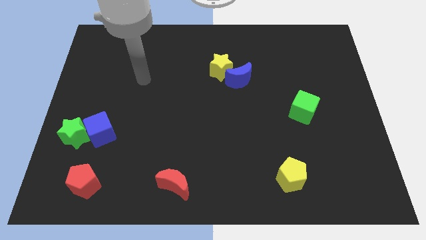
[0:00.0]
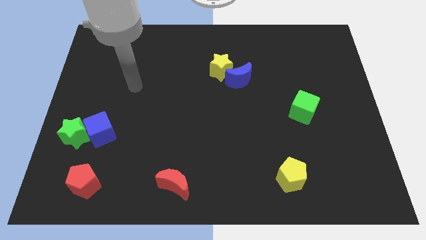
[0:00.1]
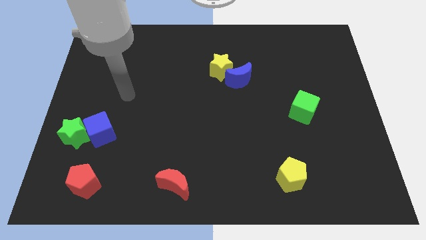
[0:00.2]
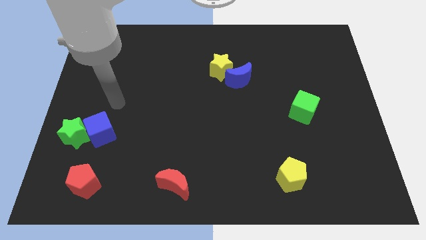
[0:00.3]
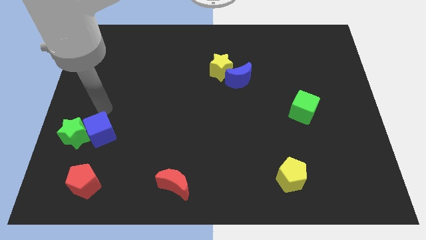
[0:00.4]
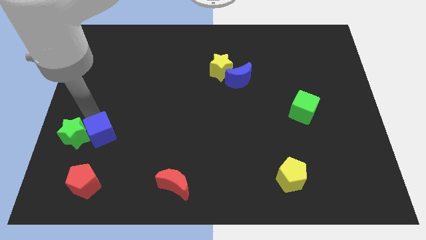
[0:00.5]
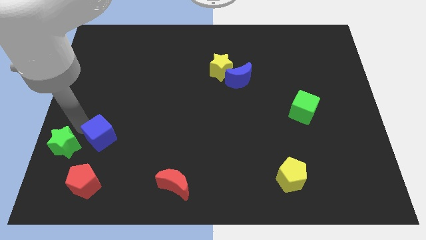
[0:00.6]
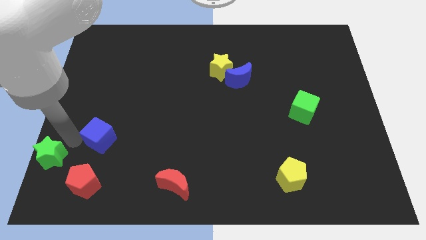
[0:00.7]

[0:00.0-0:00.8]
move the blue cube away from the green star

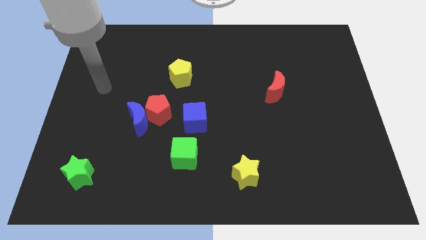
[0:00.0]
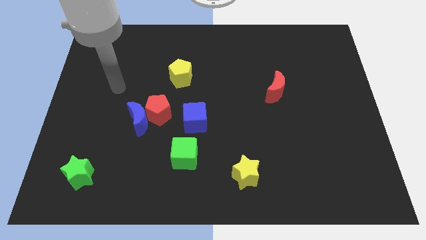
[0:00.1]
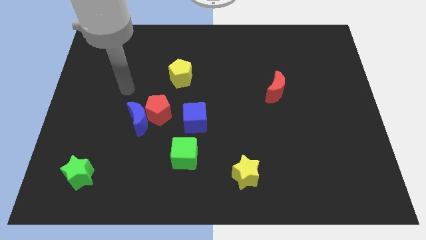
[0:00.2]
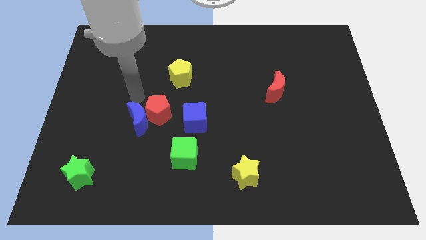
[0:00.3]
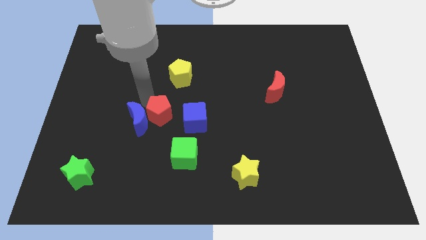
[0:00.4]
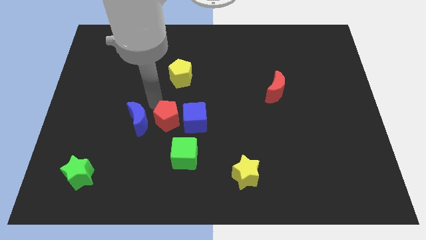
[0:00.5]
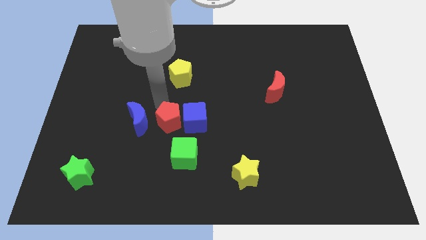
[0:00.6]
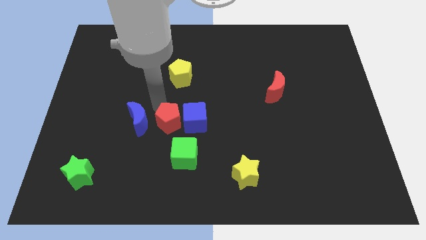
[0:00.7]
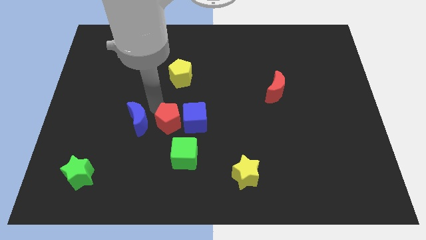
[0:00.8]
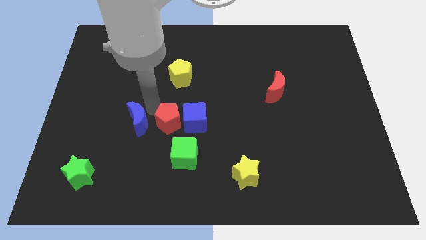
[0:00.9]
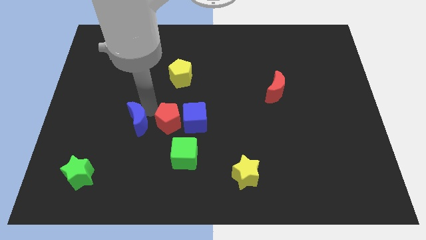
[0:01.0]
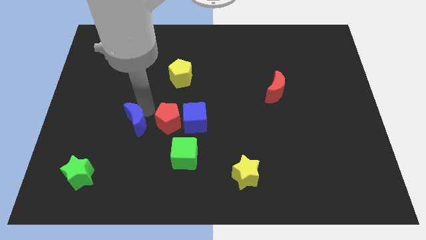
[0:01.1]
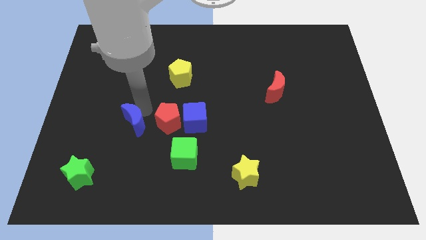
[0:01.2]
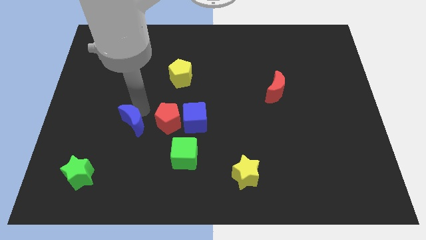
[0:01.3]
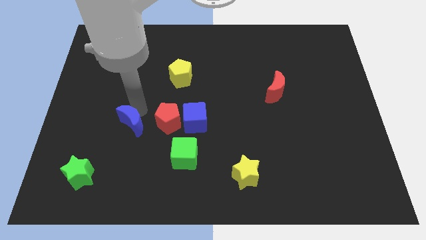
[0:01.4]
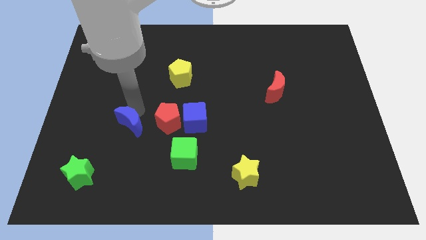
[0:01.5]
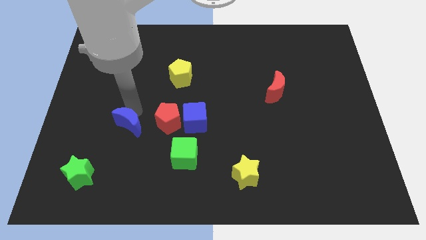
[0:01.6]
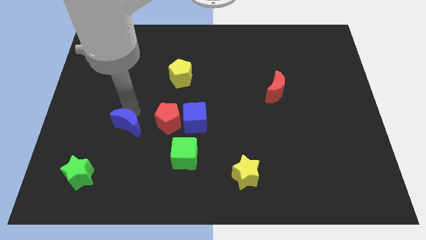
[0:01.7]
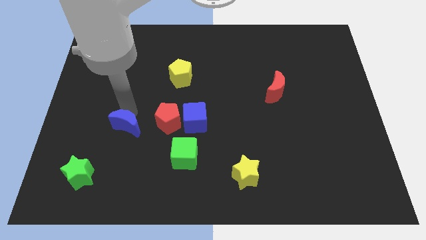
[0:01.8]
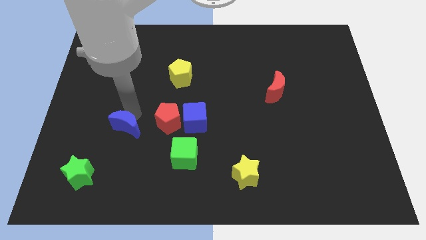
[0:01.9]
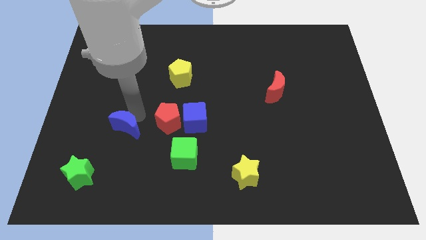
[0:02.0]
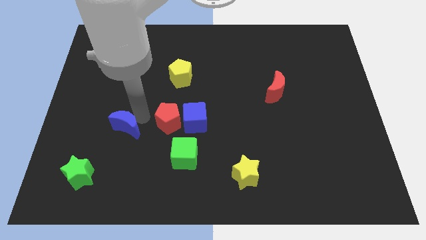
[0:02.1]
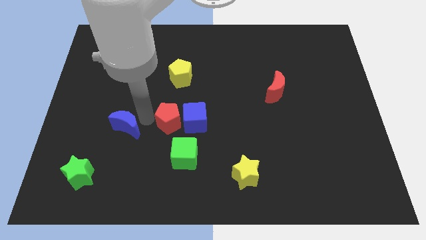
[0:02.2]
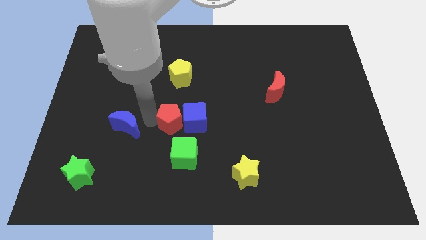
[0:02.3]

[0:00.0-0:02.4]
pull the blue moon apart from the red pentagon

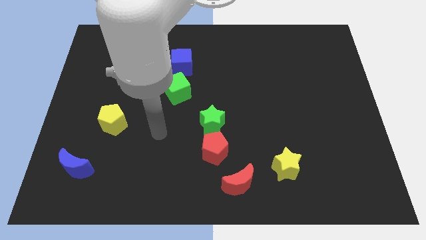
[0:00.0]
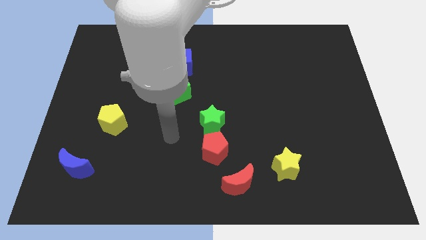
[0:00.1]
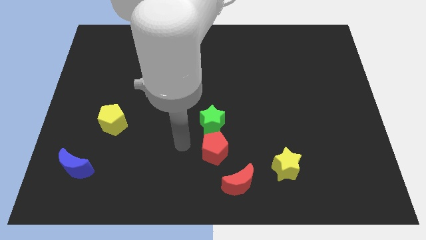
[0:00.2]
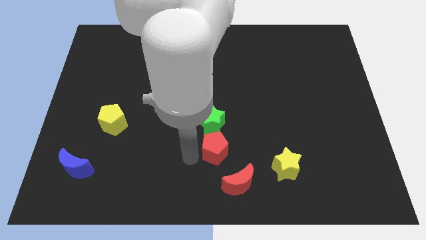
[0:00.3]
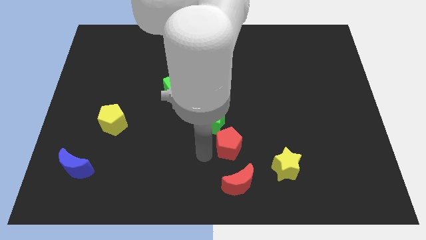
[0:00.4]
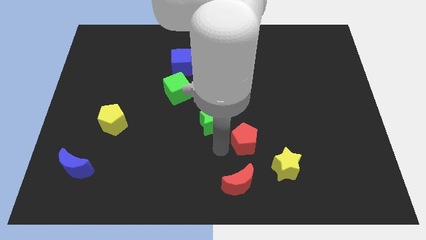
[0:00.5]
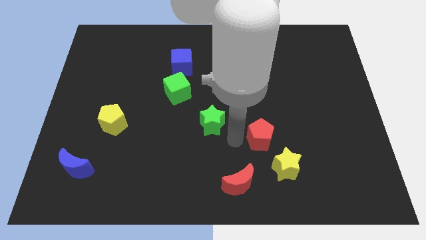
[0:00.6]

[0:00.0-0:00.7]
separate the green star from the red pentagon

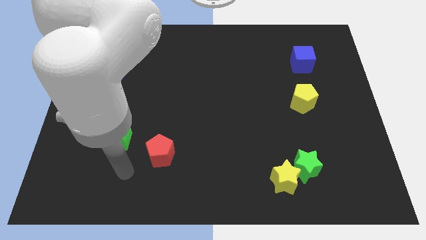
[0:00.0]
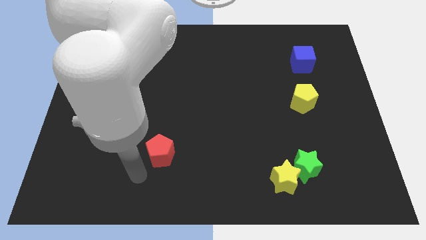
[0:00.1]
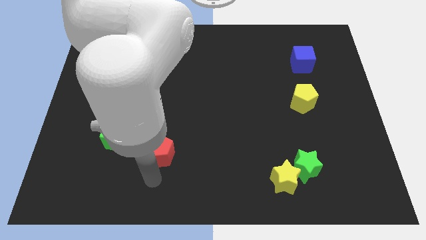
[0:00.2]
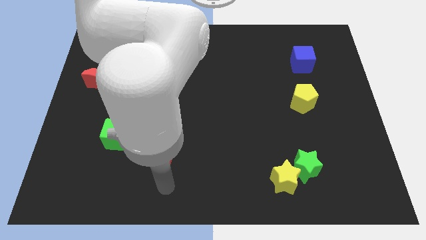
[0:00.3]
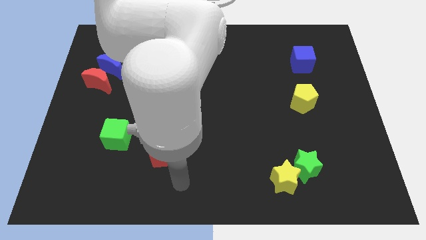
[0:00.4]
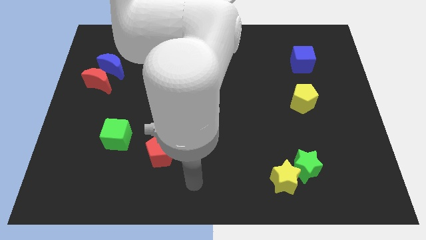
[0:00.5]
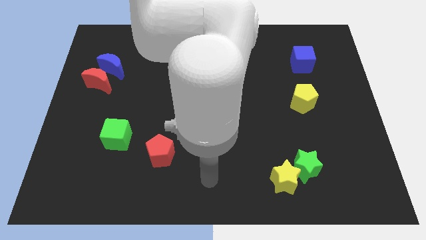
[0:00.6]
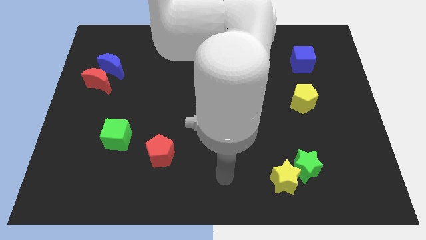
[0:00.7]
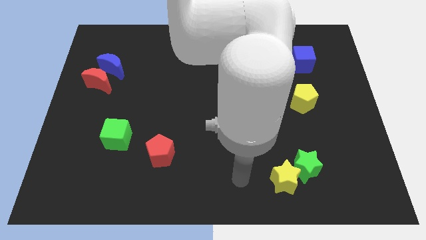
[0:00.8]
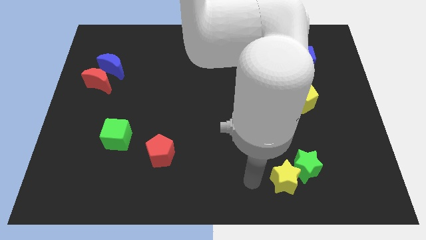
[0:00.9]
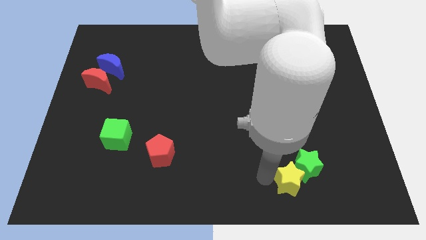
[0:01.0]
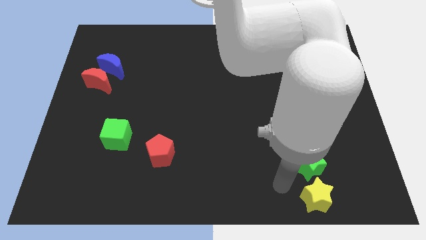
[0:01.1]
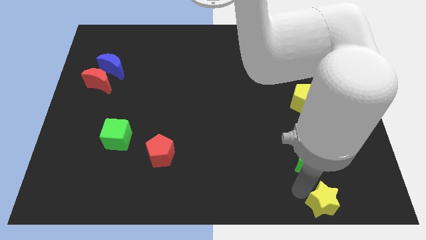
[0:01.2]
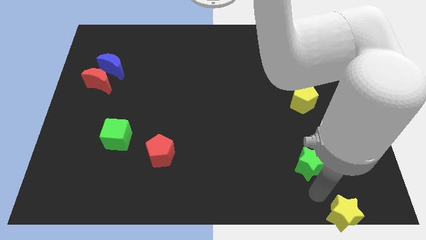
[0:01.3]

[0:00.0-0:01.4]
separate the green star from the yellow star

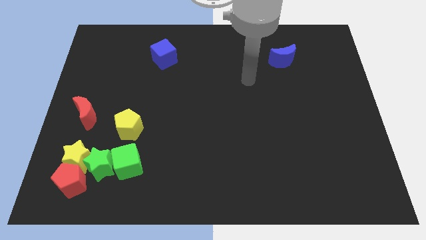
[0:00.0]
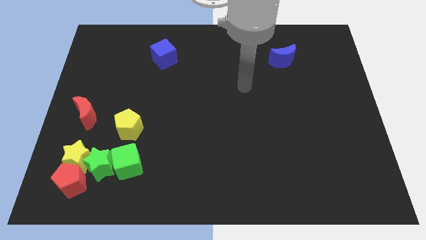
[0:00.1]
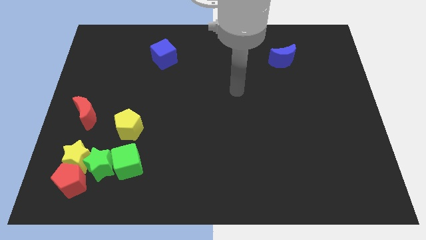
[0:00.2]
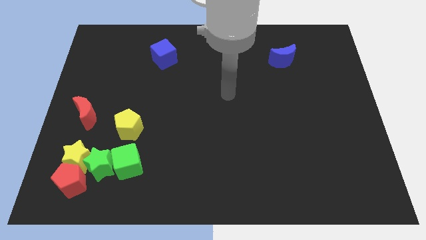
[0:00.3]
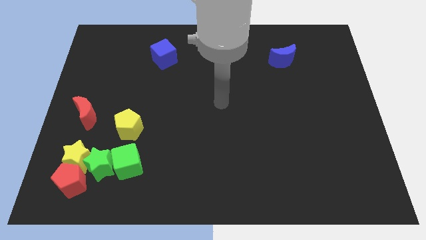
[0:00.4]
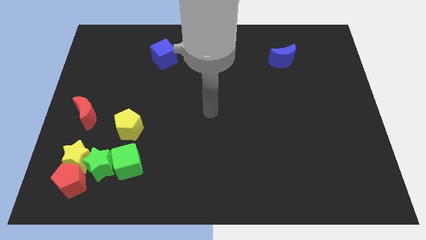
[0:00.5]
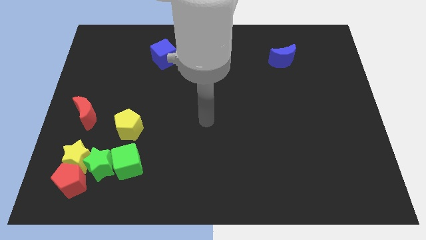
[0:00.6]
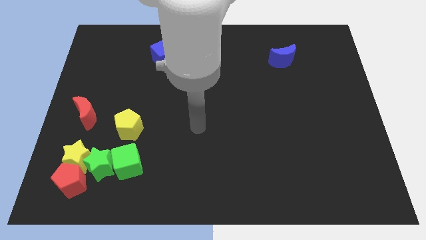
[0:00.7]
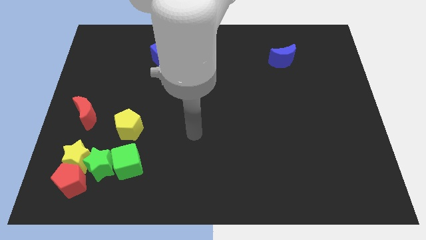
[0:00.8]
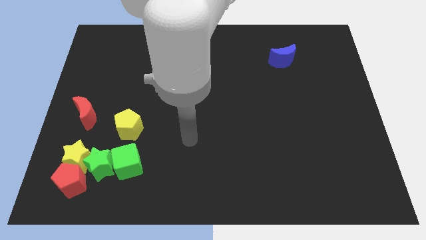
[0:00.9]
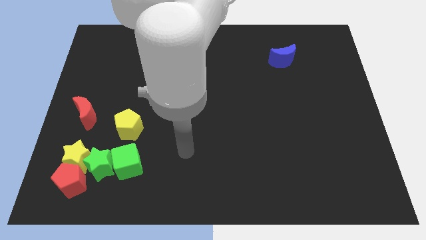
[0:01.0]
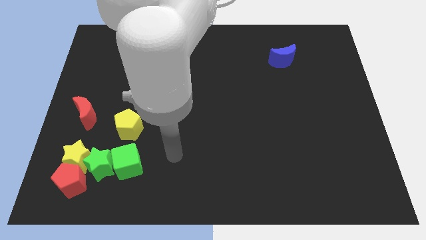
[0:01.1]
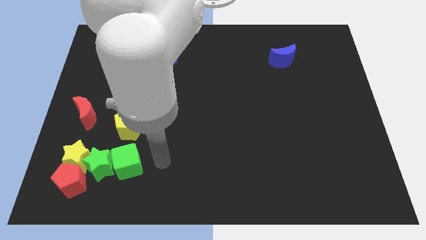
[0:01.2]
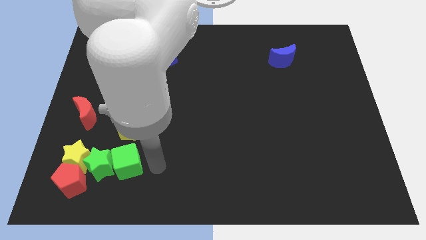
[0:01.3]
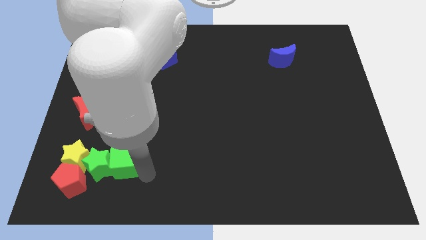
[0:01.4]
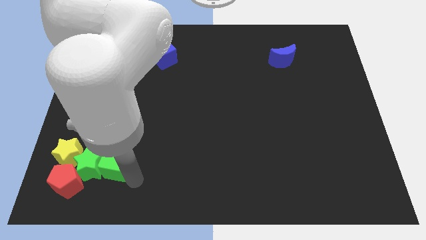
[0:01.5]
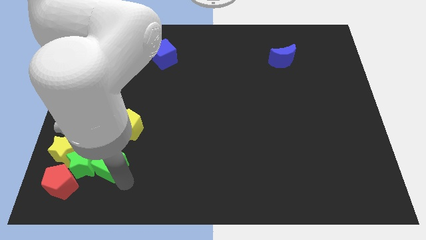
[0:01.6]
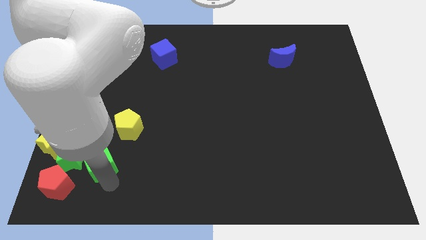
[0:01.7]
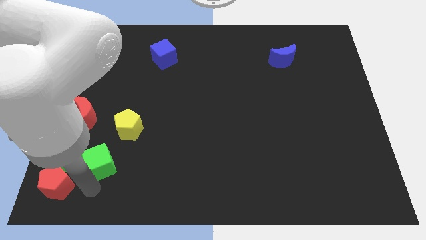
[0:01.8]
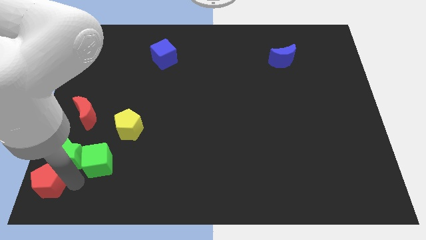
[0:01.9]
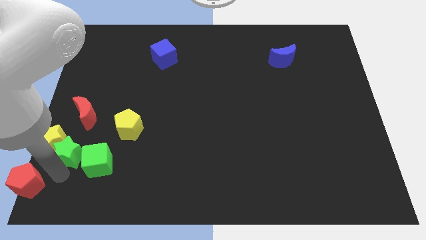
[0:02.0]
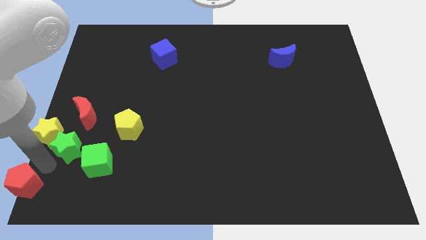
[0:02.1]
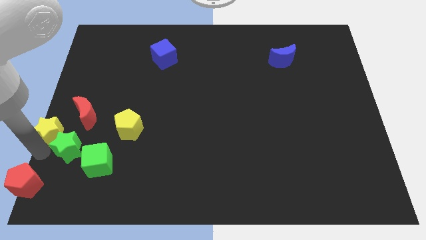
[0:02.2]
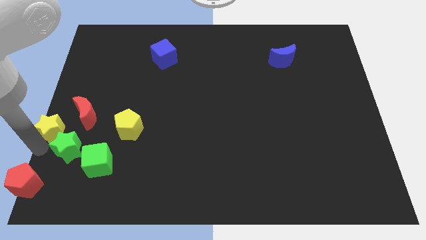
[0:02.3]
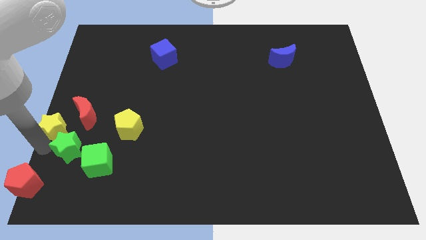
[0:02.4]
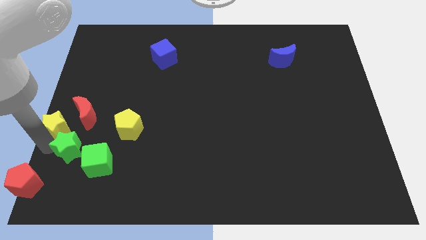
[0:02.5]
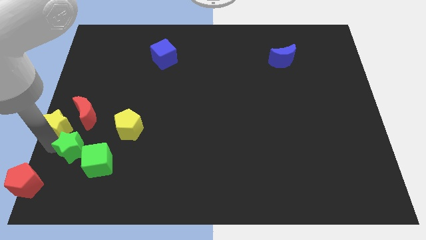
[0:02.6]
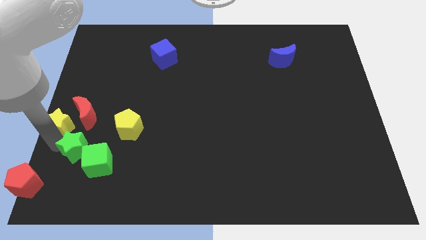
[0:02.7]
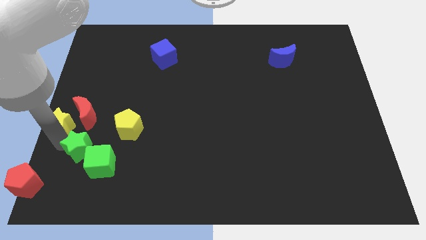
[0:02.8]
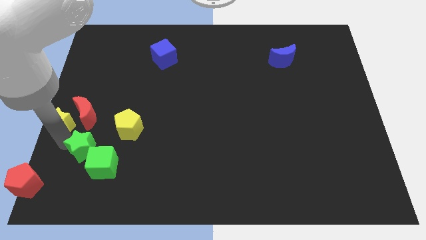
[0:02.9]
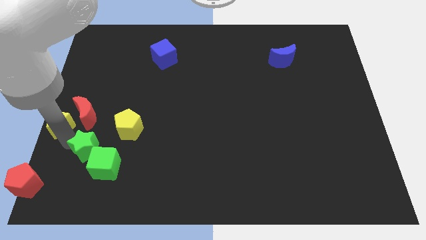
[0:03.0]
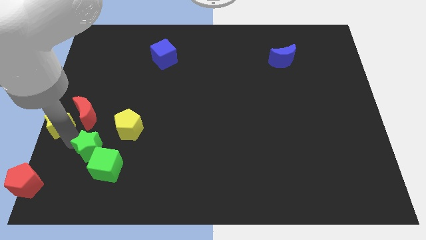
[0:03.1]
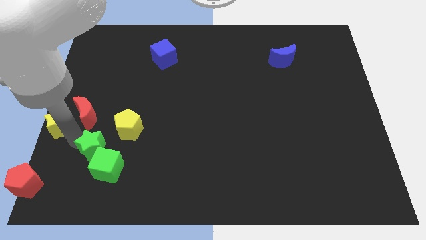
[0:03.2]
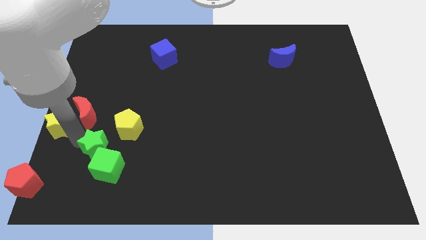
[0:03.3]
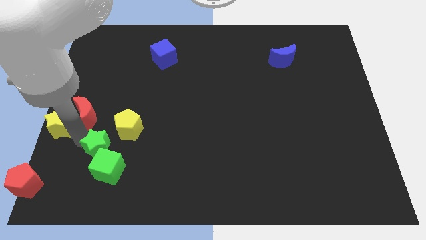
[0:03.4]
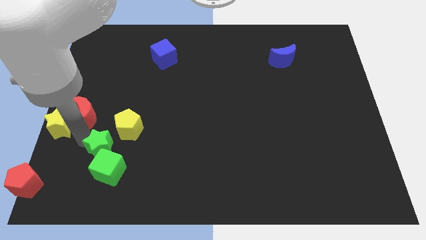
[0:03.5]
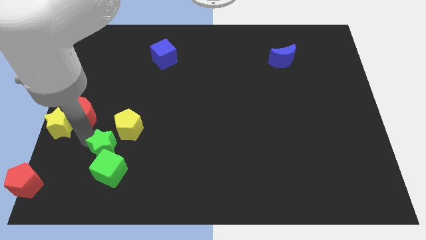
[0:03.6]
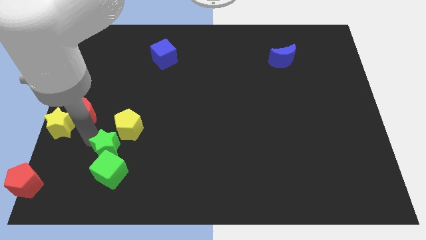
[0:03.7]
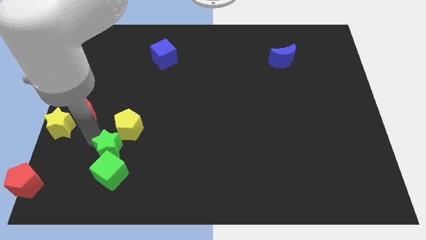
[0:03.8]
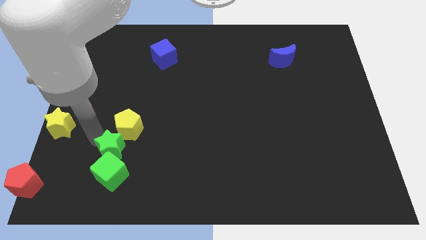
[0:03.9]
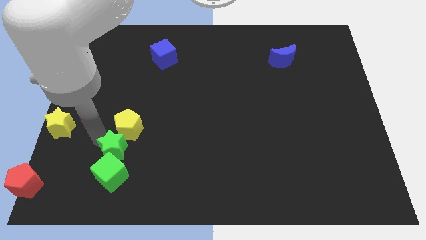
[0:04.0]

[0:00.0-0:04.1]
separate the green star from the yellow star, green cube, and red pentagon
